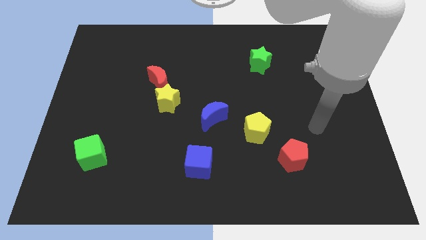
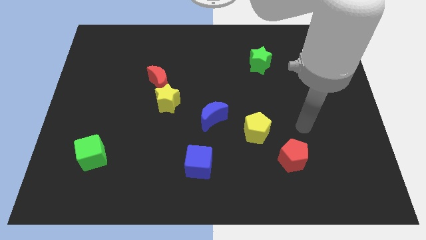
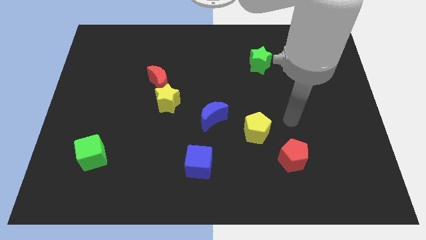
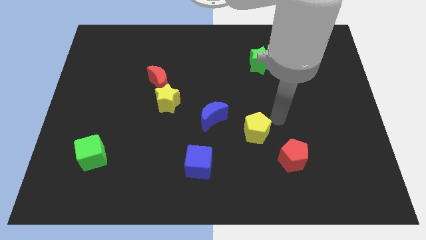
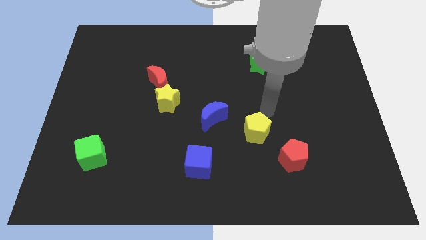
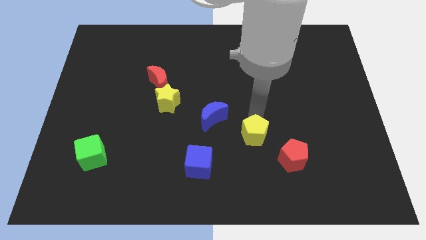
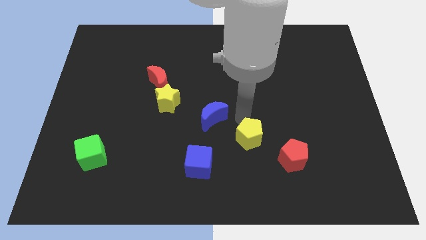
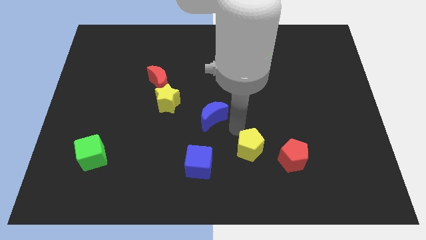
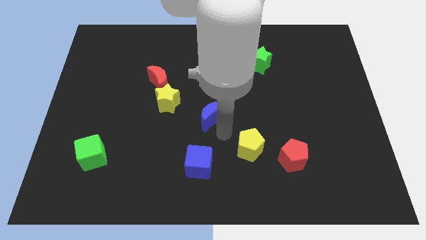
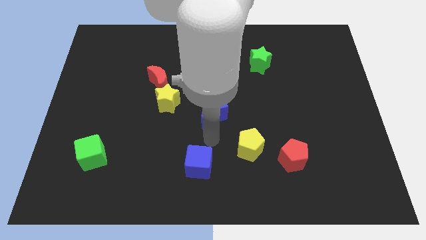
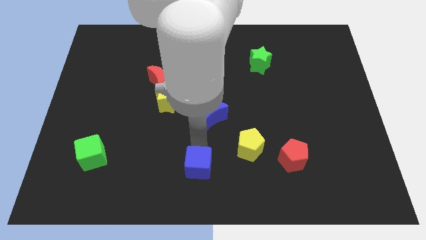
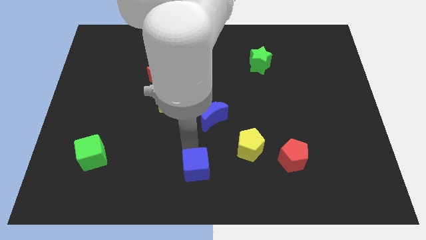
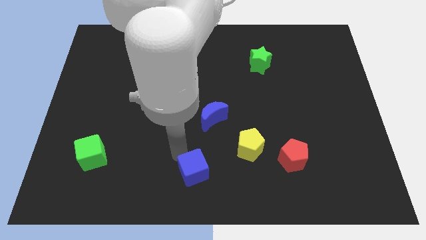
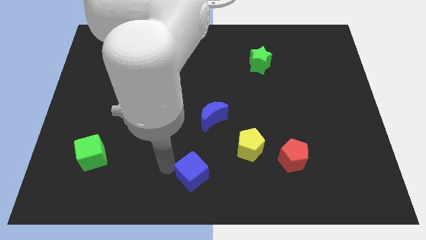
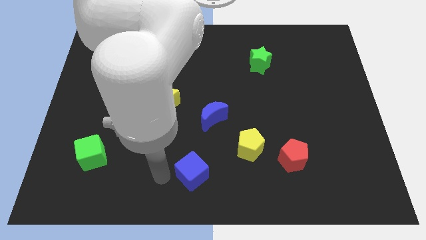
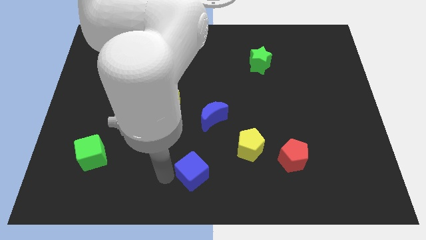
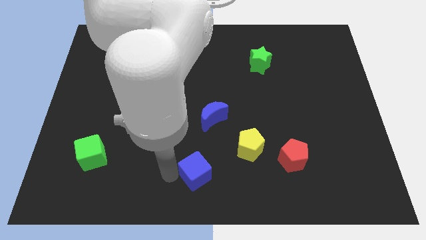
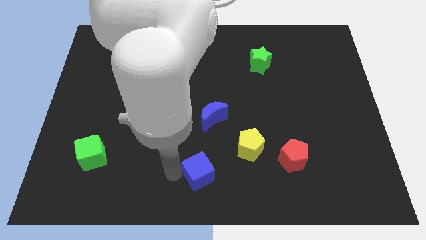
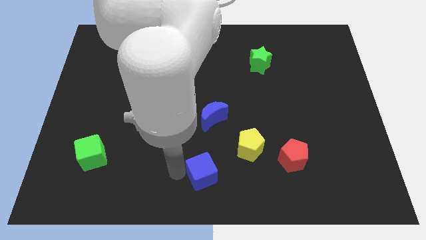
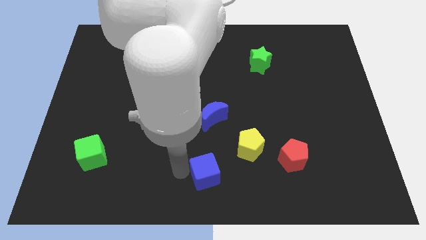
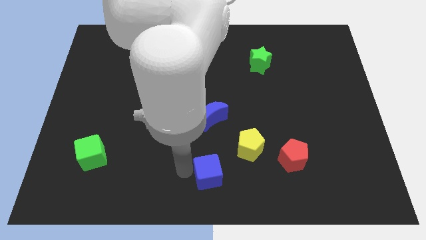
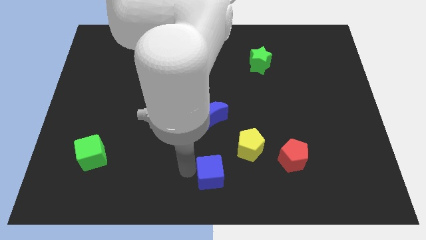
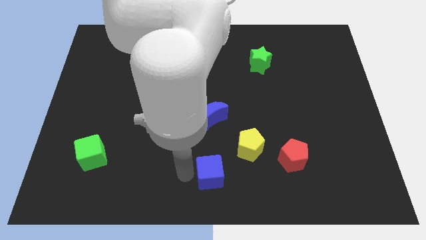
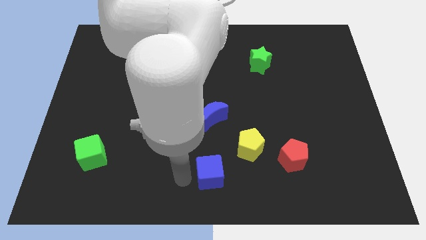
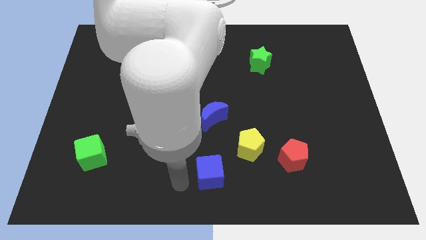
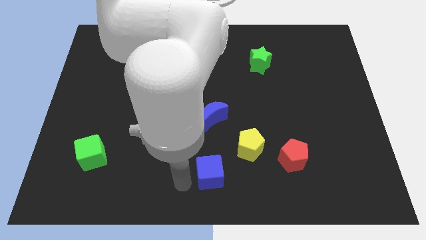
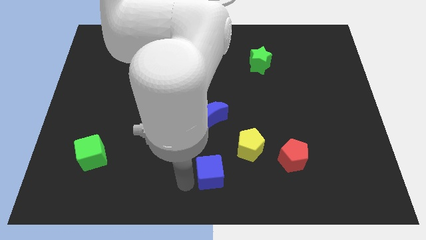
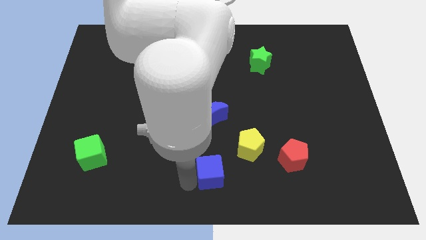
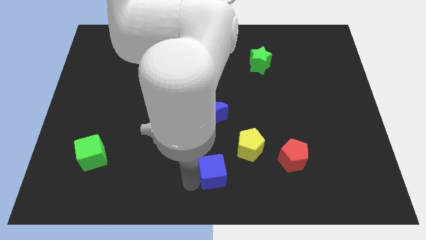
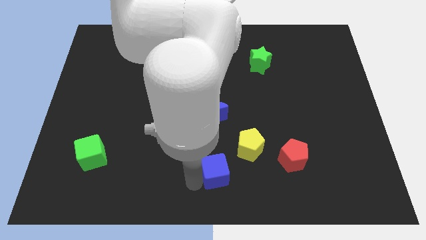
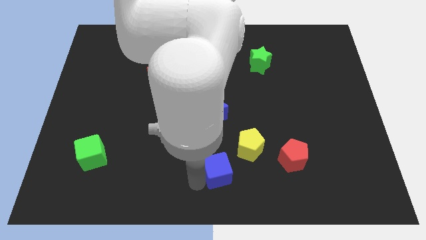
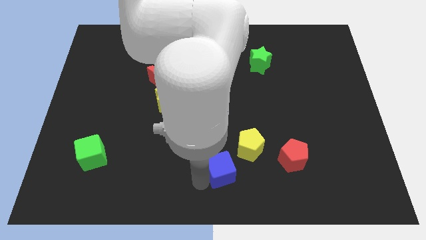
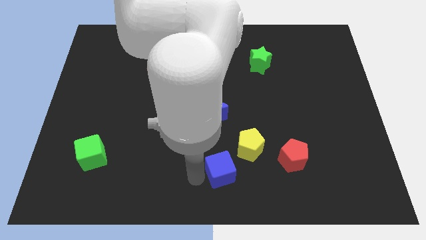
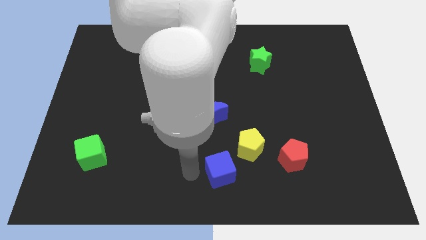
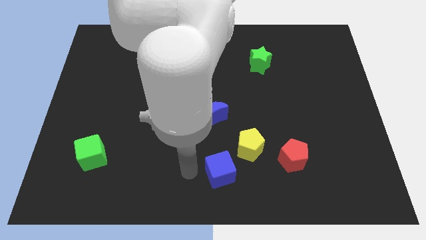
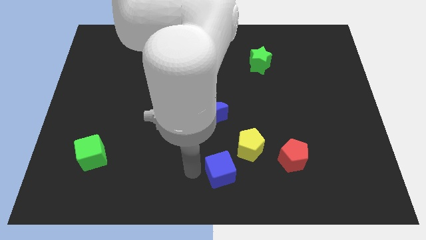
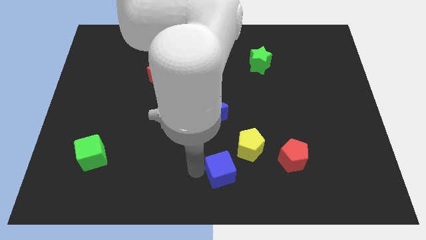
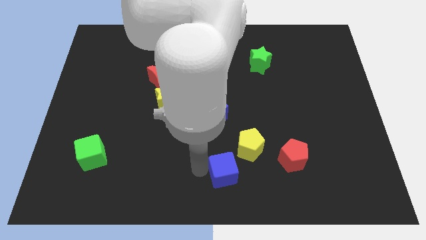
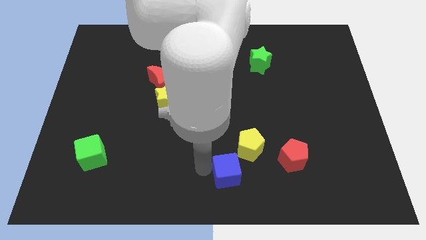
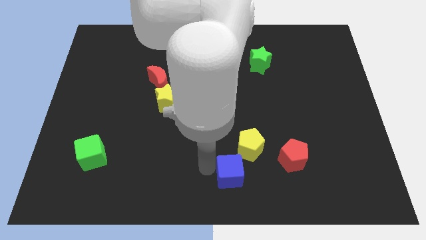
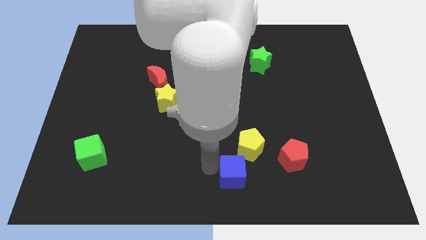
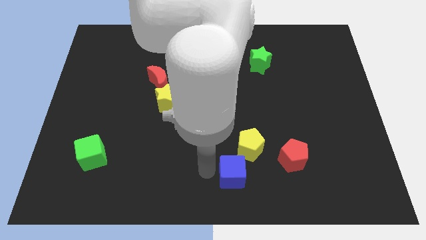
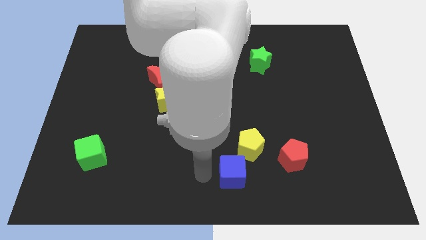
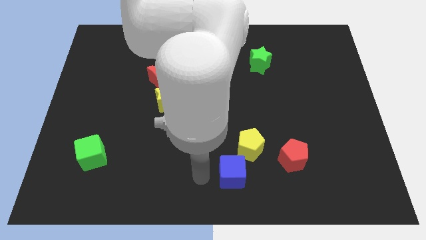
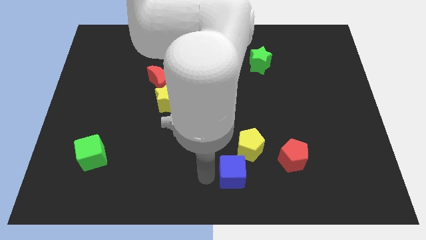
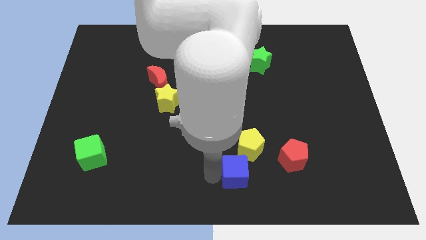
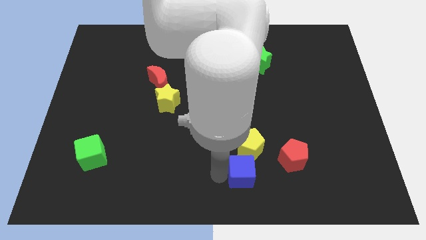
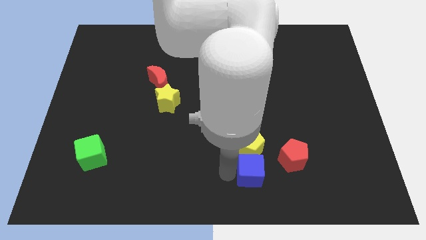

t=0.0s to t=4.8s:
put the blue cube to the bottom left side of the red pentagon

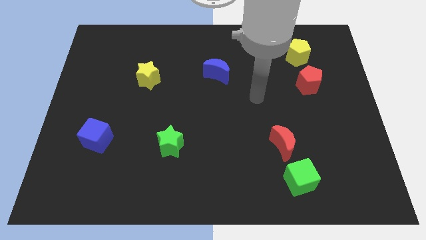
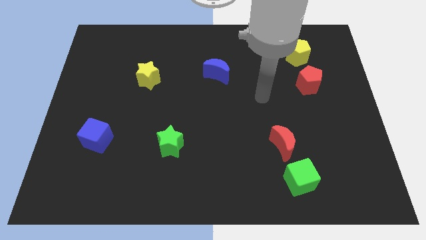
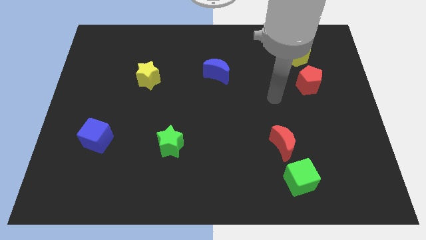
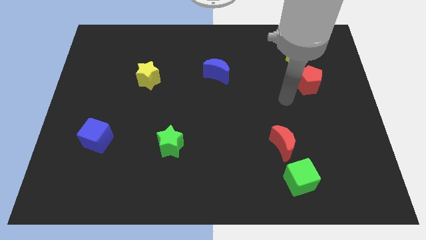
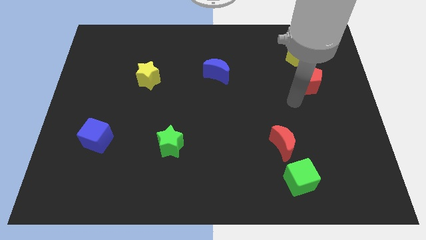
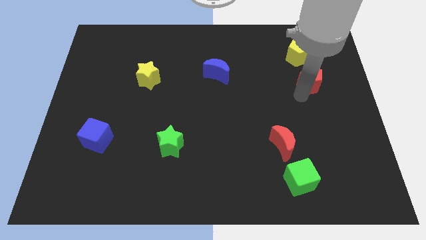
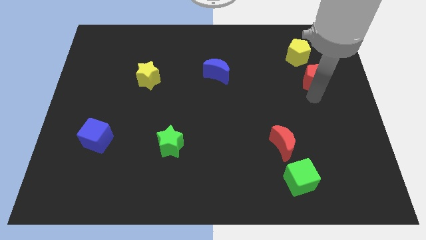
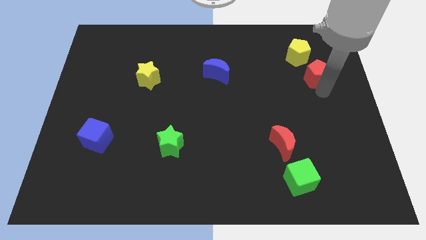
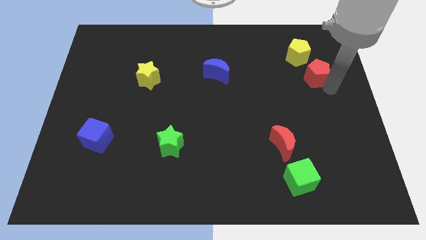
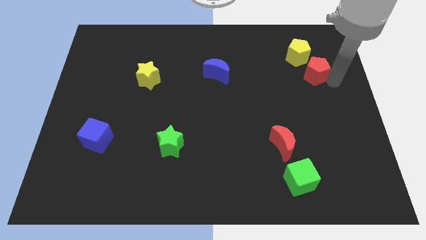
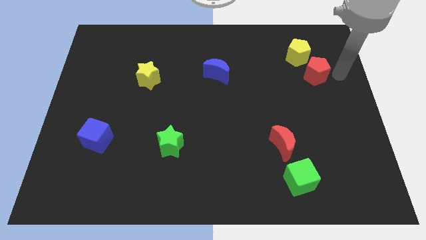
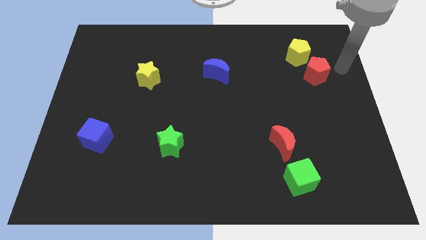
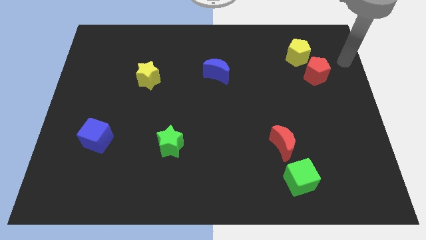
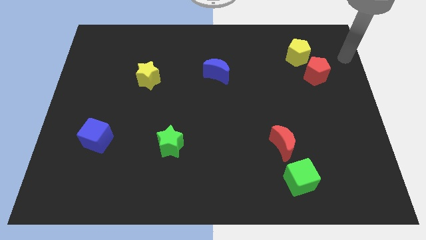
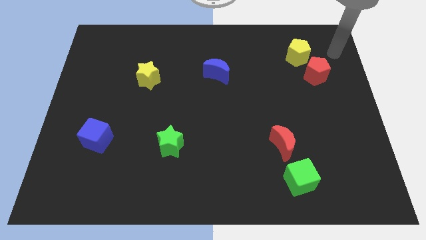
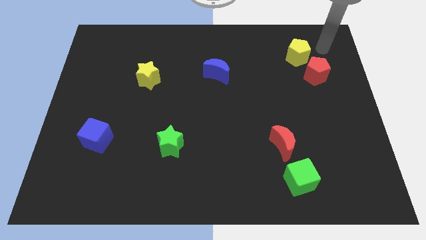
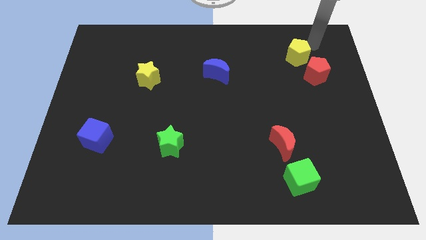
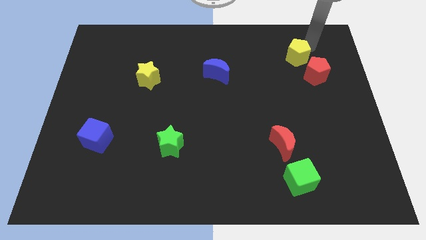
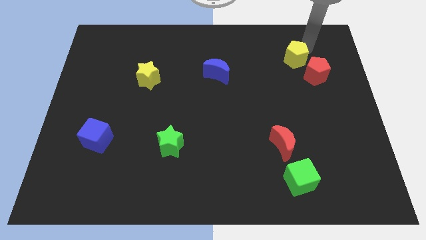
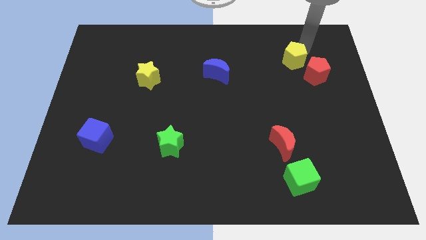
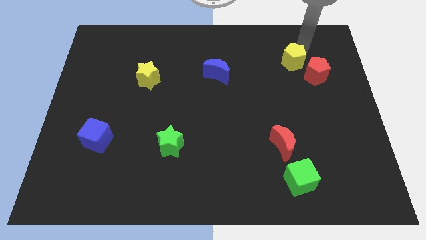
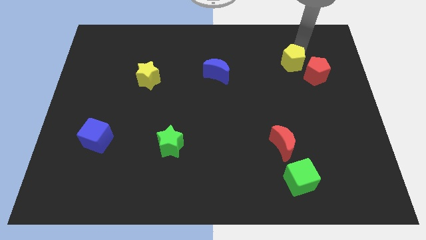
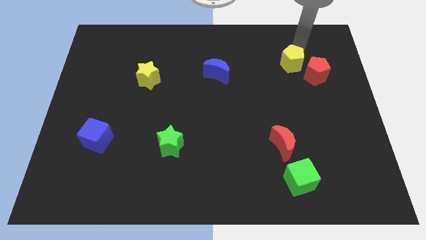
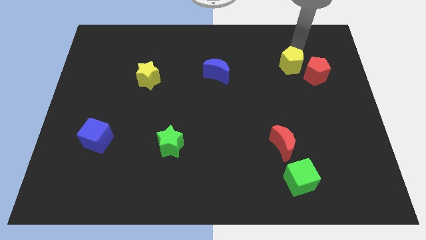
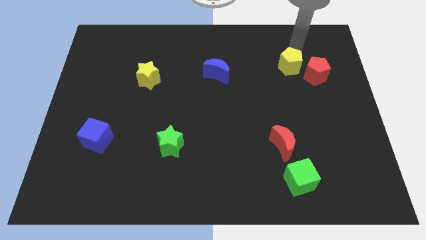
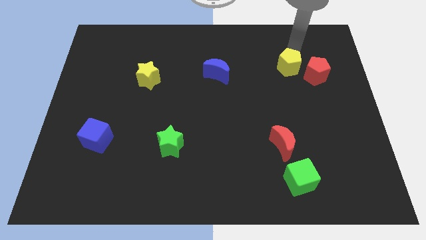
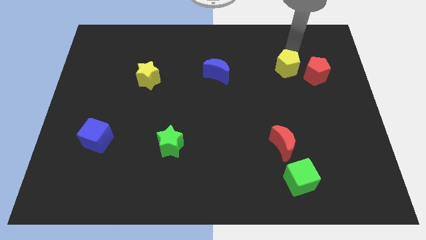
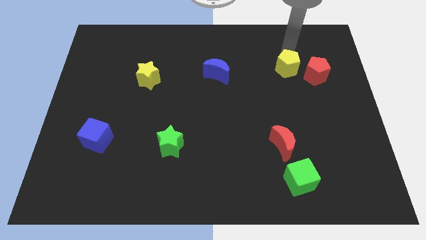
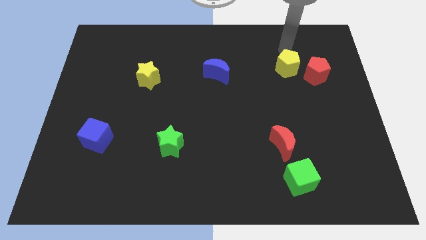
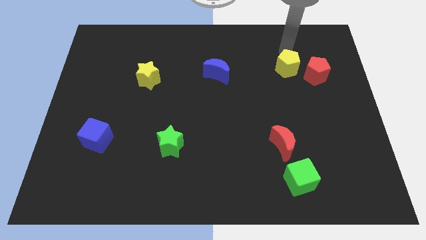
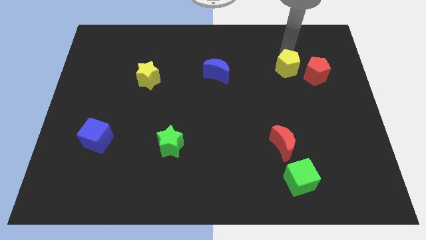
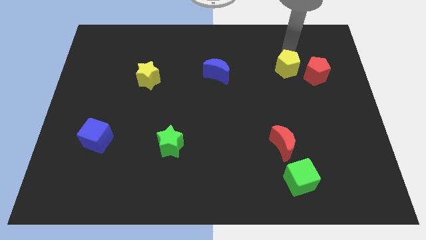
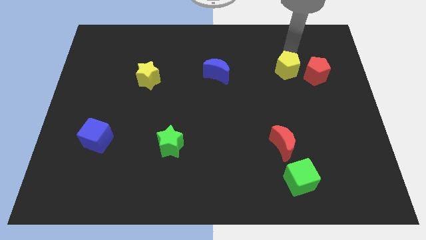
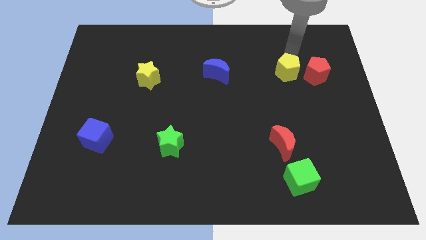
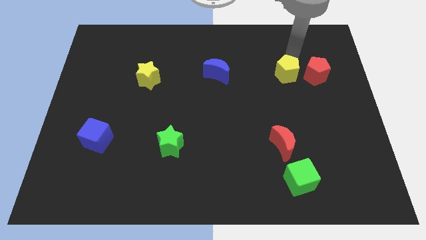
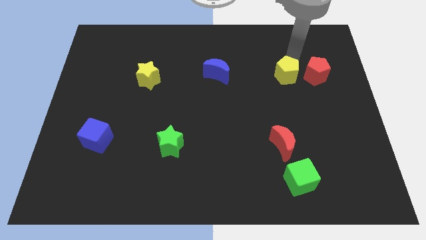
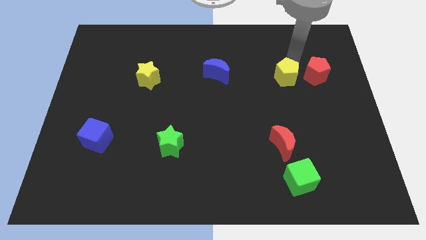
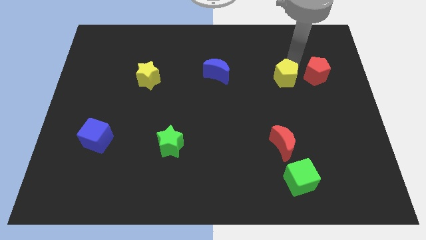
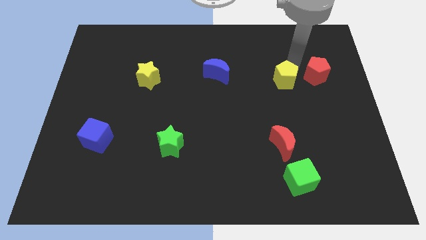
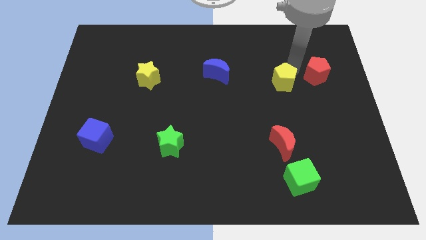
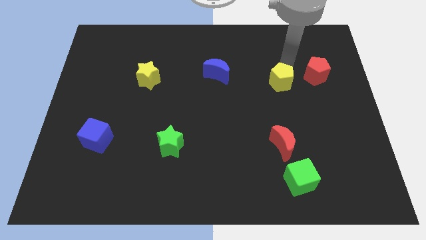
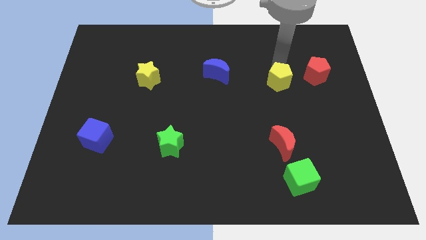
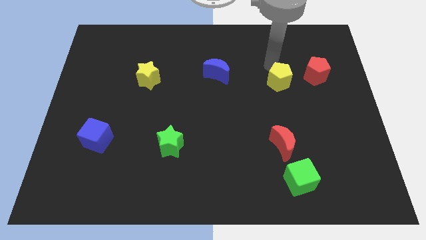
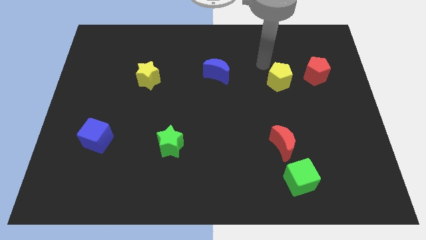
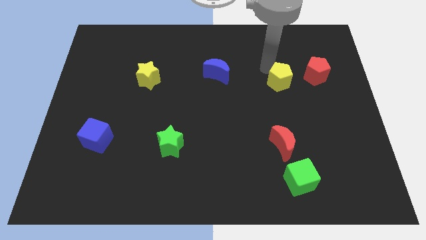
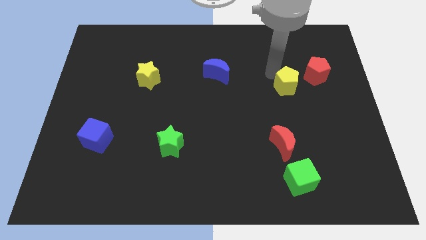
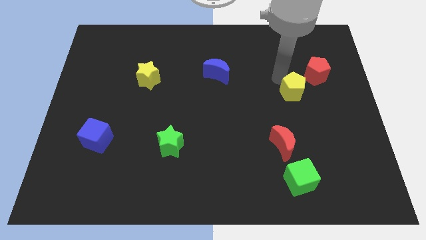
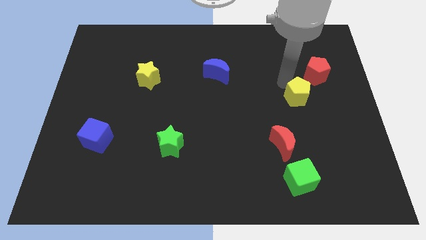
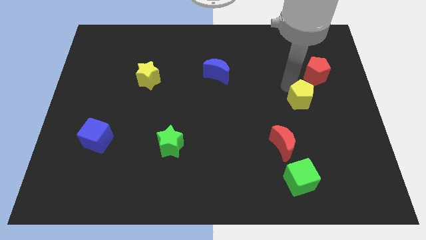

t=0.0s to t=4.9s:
move the yellow pentagon to the bottom side of the red pentagon
